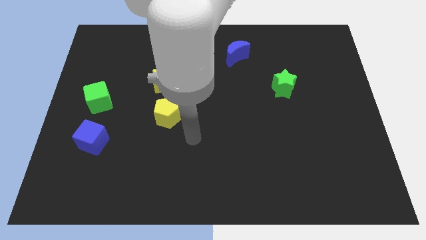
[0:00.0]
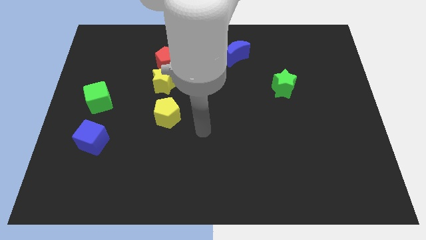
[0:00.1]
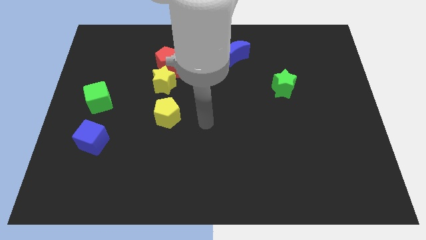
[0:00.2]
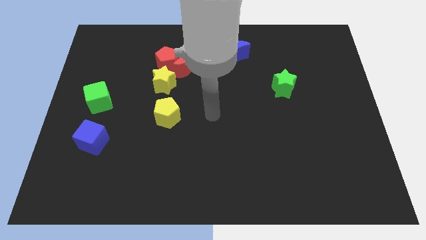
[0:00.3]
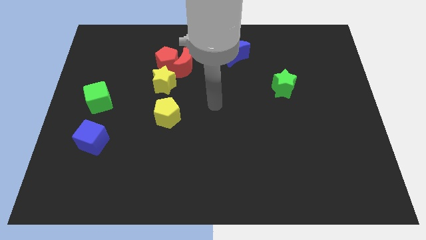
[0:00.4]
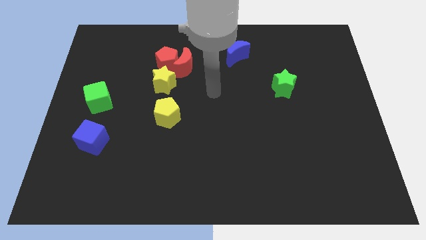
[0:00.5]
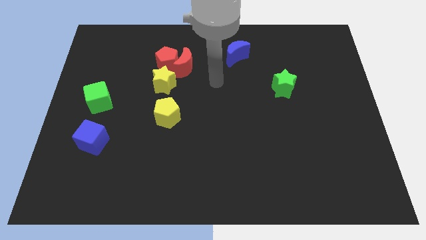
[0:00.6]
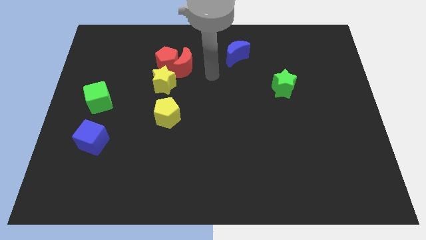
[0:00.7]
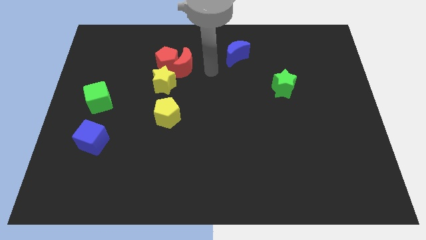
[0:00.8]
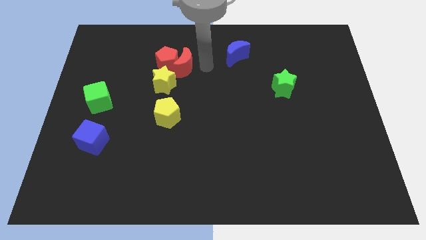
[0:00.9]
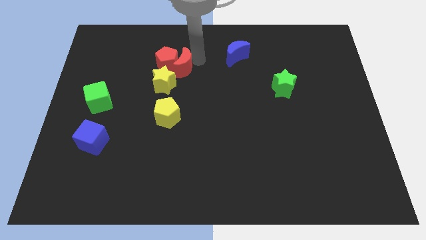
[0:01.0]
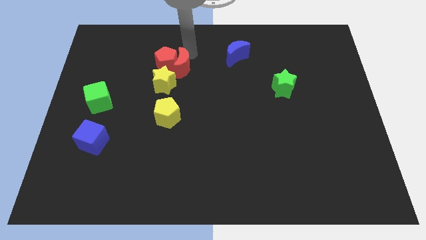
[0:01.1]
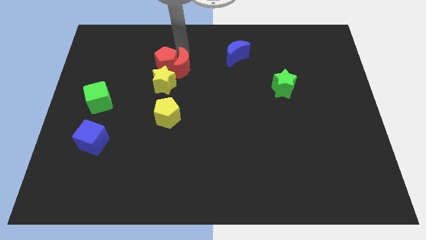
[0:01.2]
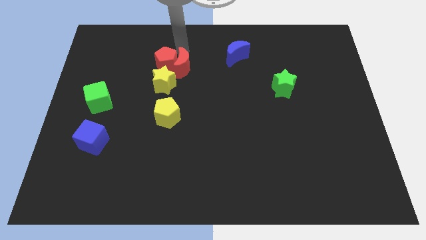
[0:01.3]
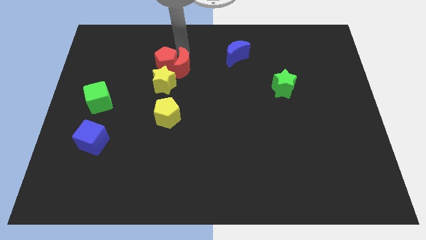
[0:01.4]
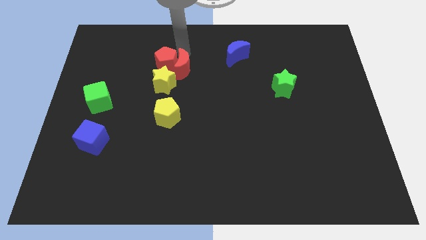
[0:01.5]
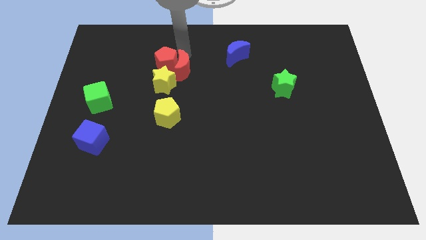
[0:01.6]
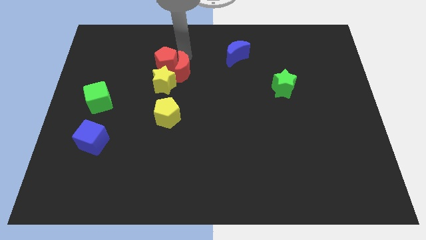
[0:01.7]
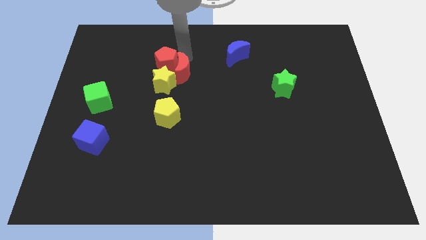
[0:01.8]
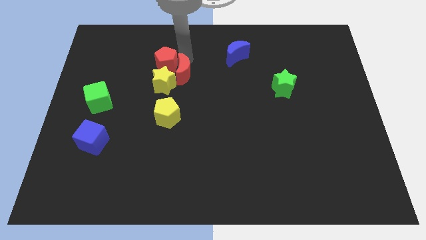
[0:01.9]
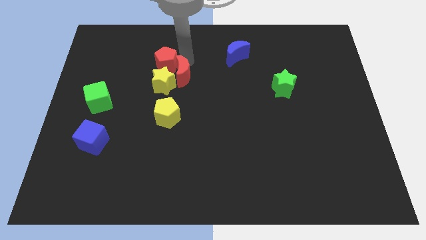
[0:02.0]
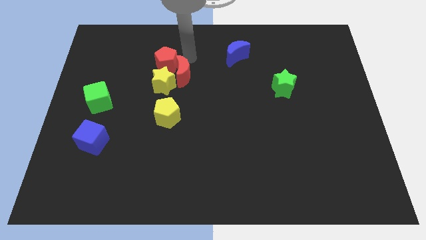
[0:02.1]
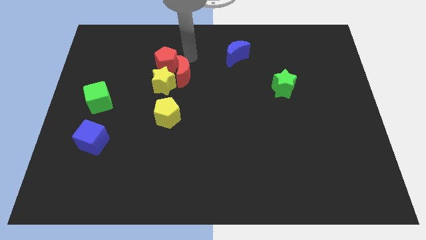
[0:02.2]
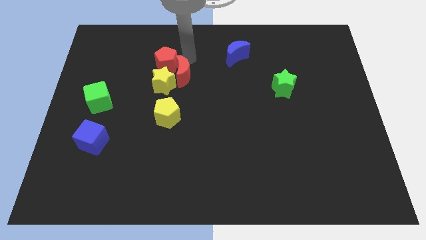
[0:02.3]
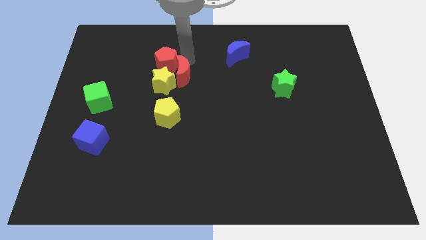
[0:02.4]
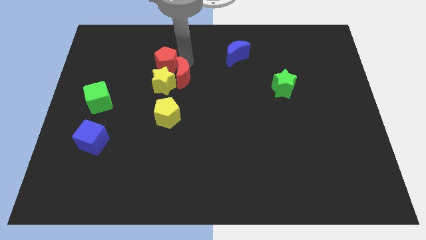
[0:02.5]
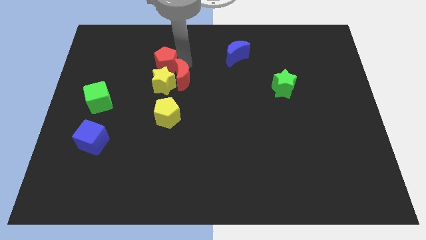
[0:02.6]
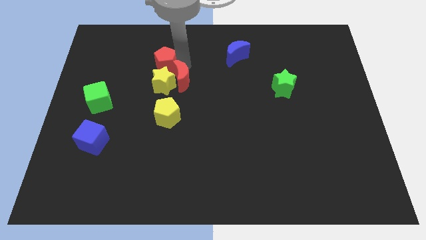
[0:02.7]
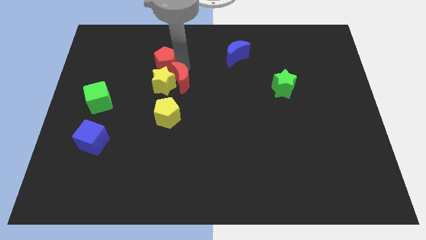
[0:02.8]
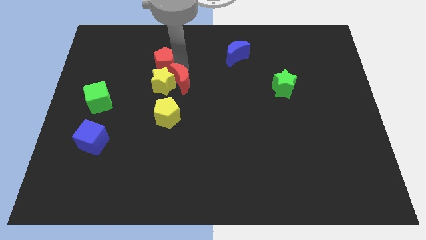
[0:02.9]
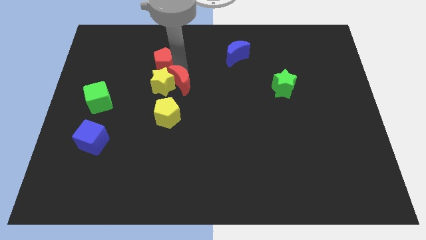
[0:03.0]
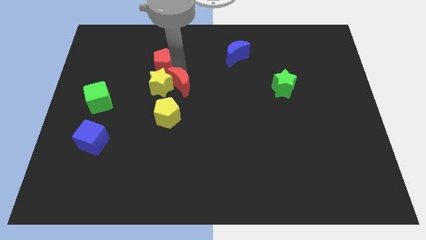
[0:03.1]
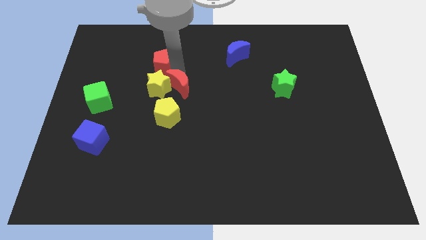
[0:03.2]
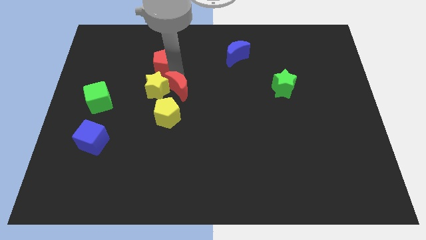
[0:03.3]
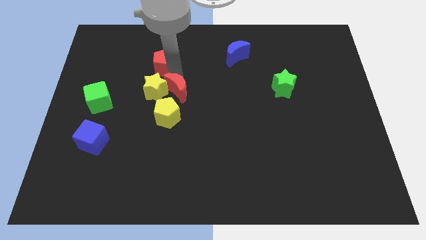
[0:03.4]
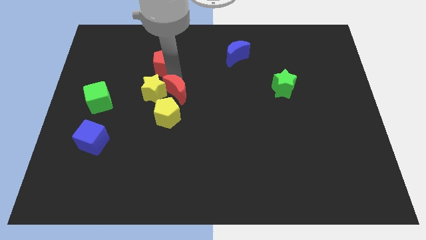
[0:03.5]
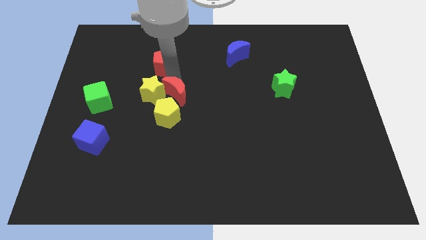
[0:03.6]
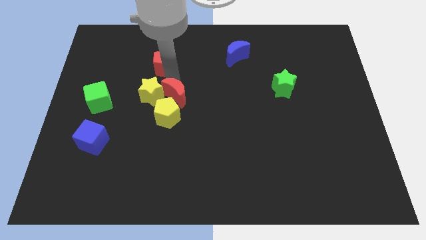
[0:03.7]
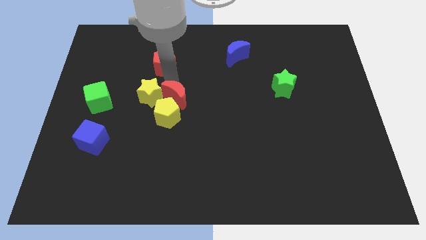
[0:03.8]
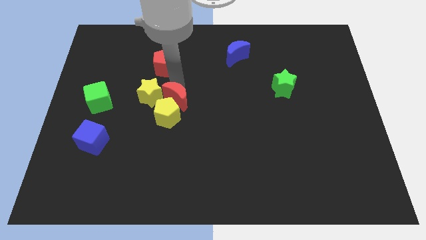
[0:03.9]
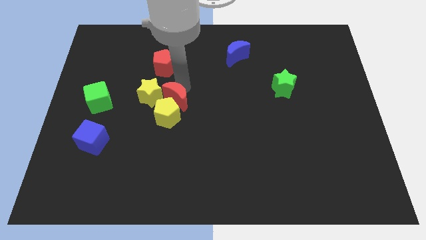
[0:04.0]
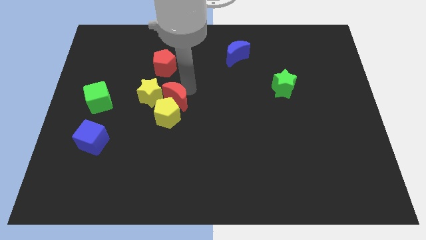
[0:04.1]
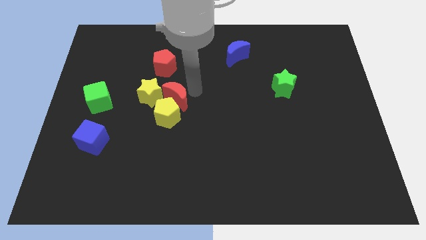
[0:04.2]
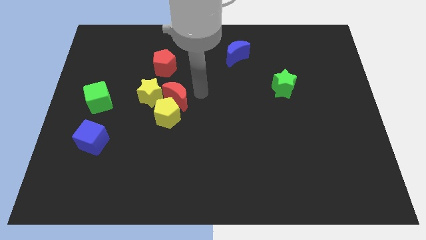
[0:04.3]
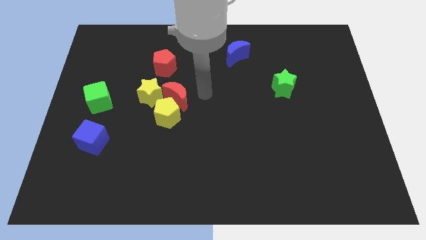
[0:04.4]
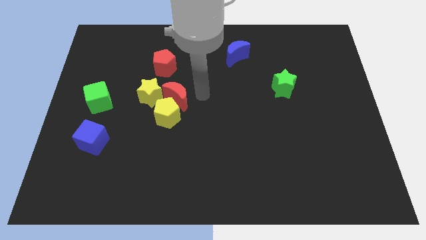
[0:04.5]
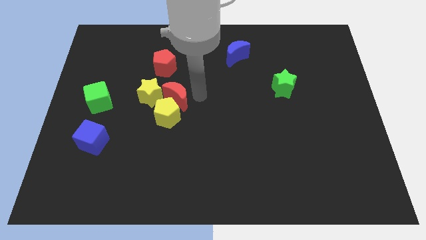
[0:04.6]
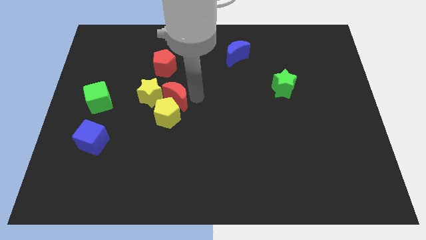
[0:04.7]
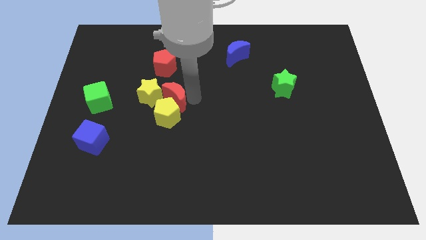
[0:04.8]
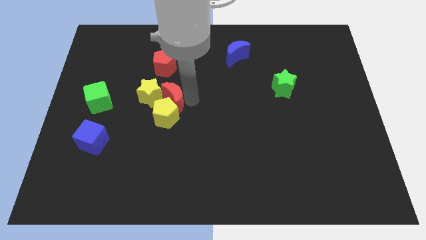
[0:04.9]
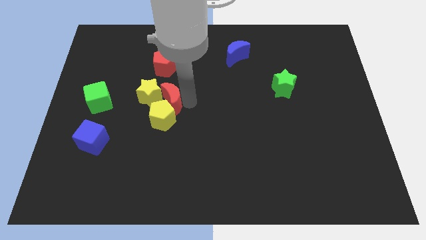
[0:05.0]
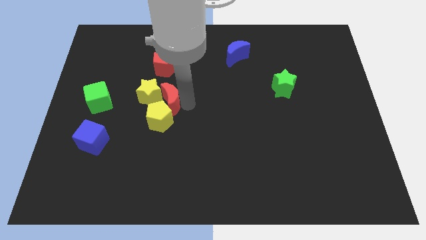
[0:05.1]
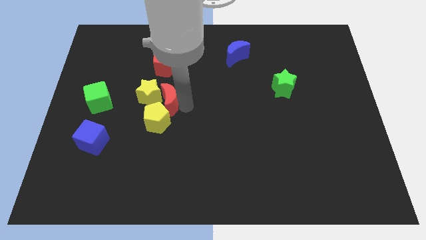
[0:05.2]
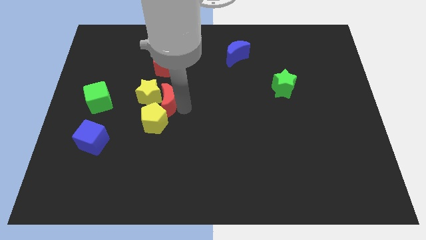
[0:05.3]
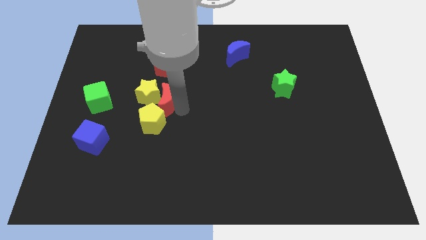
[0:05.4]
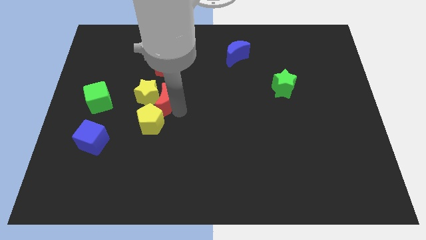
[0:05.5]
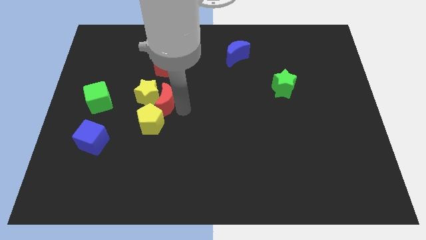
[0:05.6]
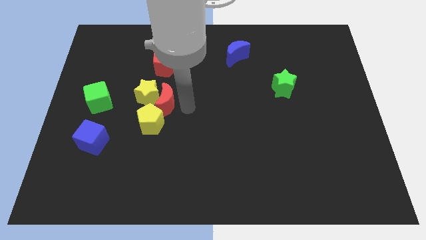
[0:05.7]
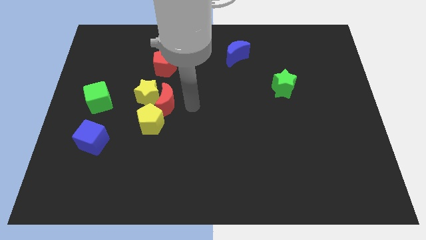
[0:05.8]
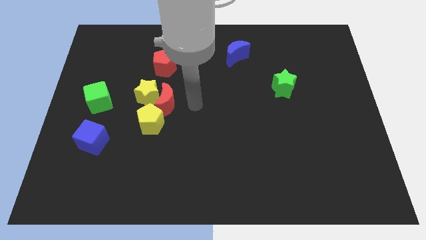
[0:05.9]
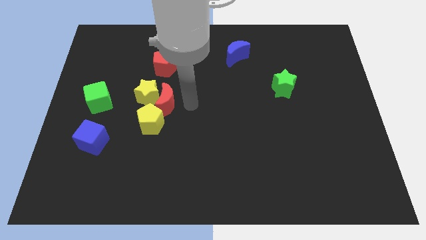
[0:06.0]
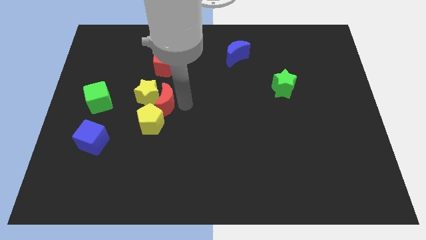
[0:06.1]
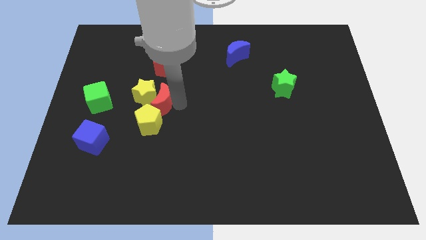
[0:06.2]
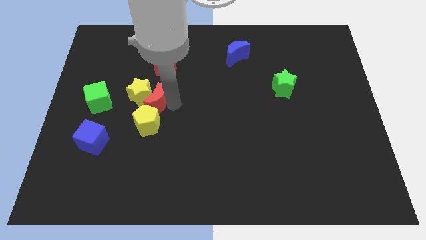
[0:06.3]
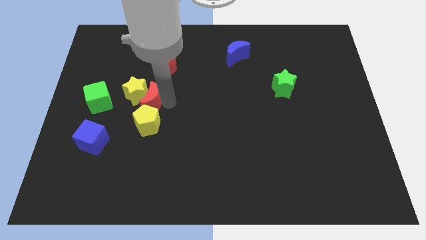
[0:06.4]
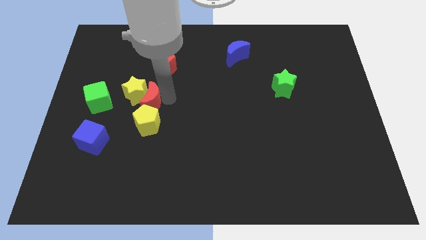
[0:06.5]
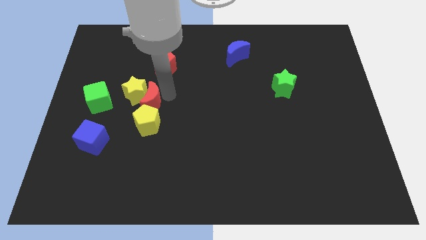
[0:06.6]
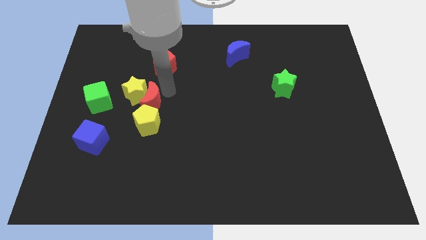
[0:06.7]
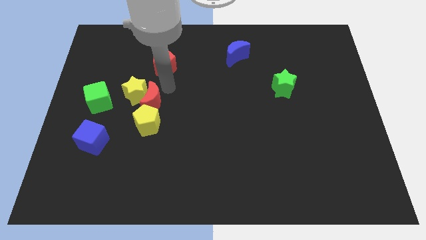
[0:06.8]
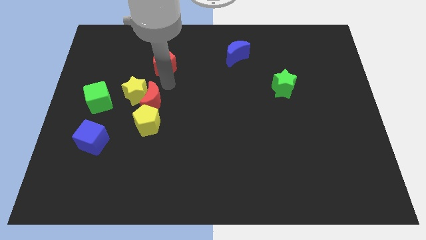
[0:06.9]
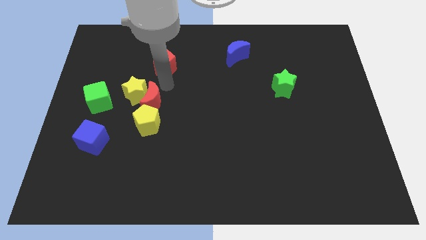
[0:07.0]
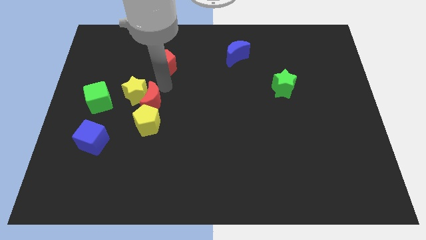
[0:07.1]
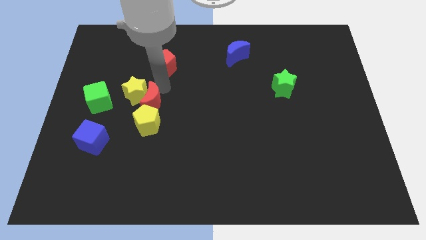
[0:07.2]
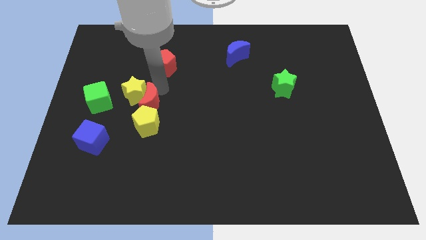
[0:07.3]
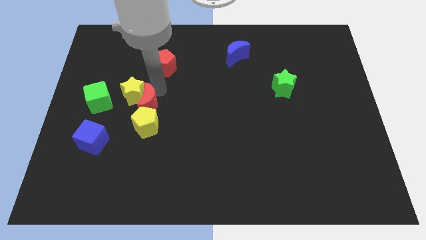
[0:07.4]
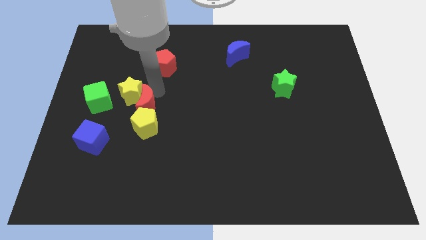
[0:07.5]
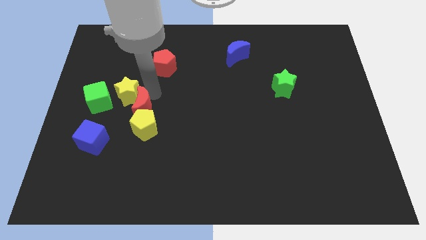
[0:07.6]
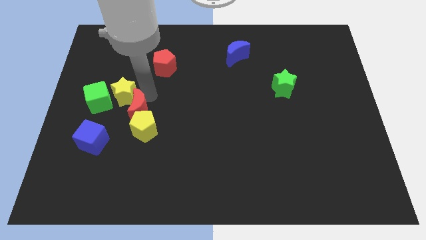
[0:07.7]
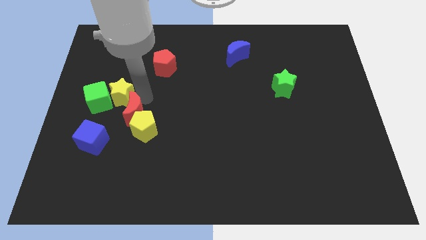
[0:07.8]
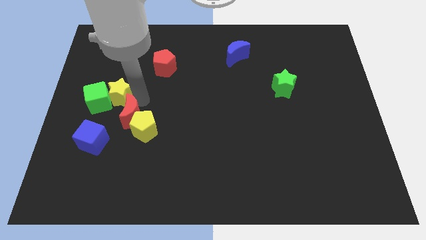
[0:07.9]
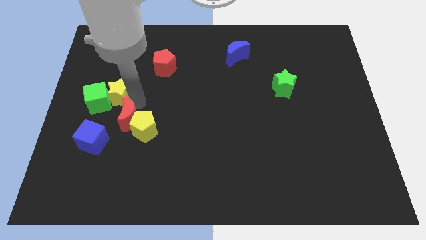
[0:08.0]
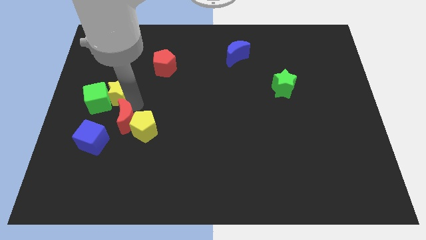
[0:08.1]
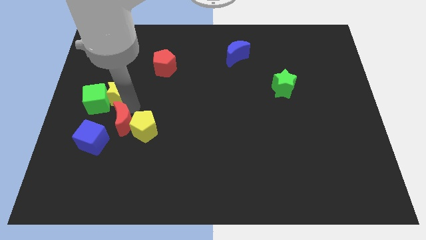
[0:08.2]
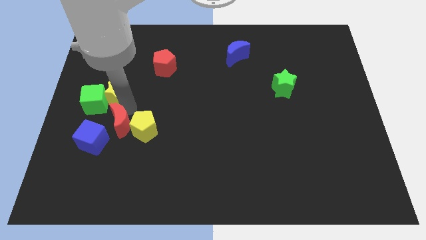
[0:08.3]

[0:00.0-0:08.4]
move the red moon to the bottom left of the yellow pentagon
